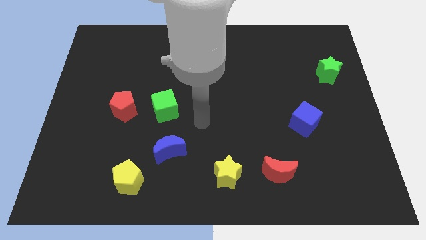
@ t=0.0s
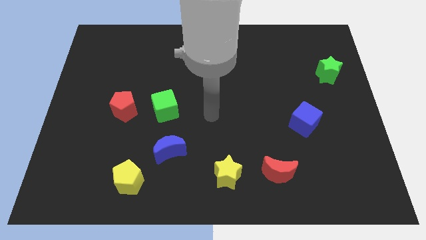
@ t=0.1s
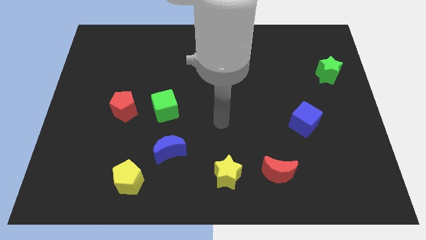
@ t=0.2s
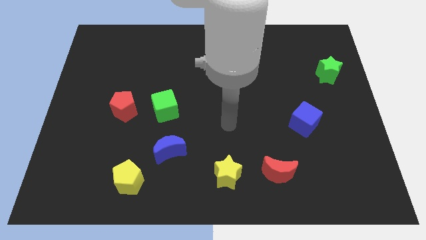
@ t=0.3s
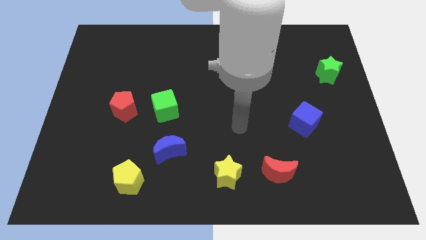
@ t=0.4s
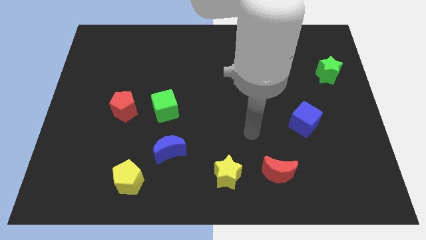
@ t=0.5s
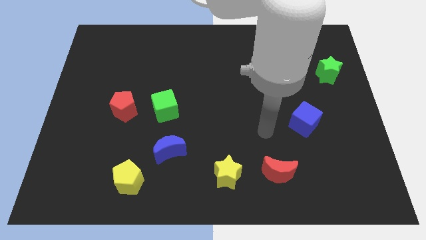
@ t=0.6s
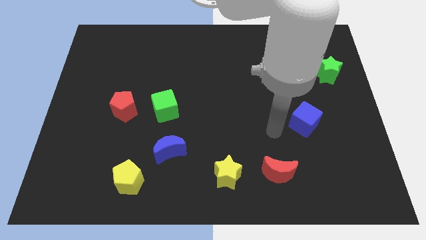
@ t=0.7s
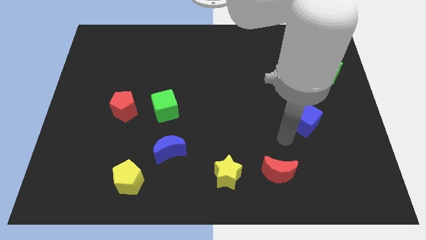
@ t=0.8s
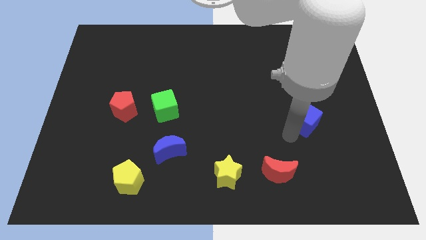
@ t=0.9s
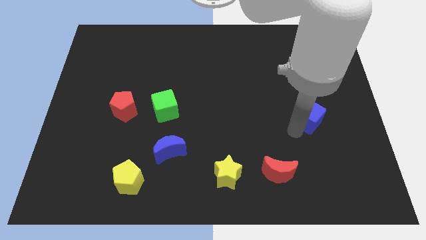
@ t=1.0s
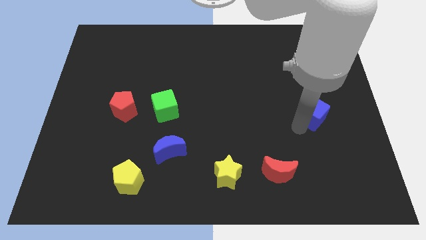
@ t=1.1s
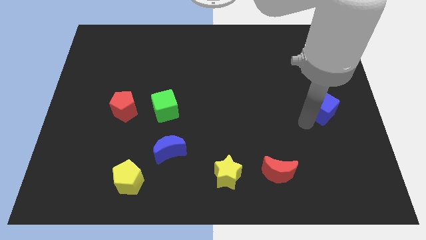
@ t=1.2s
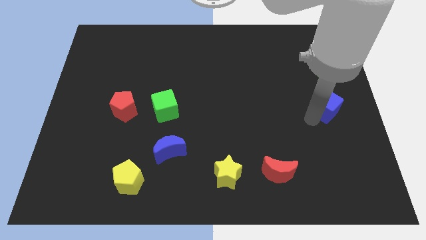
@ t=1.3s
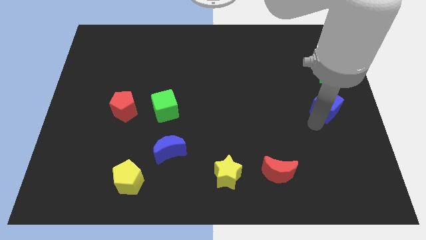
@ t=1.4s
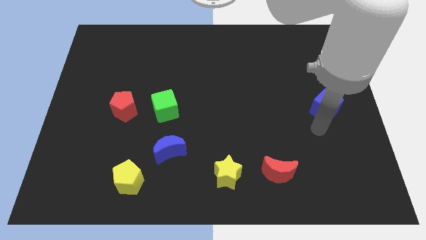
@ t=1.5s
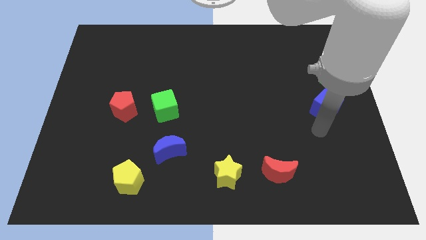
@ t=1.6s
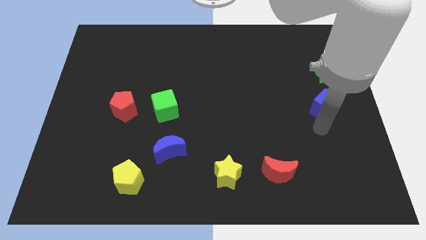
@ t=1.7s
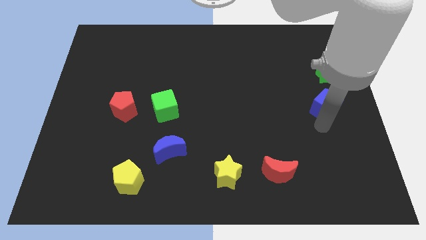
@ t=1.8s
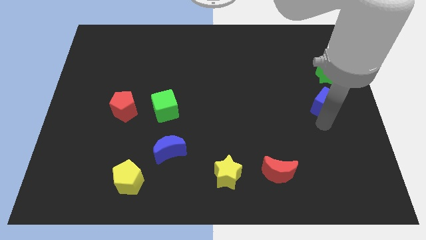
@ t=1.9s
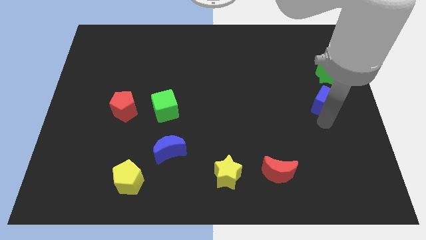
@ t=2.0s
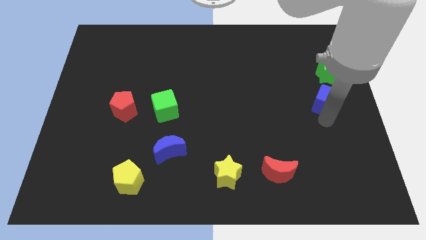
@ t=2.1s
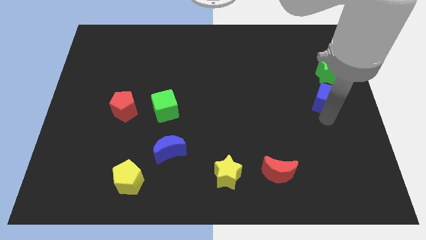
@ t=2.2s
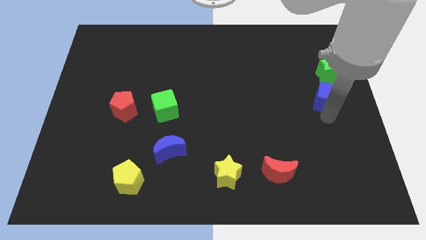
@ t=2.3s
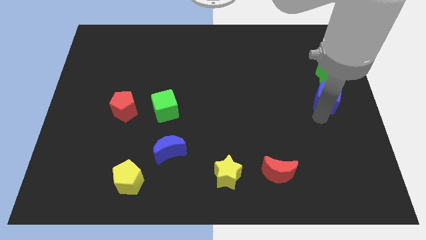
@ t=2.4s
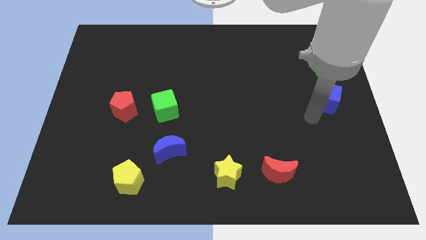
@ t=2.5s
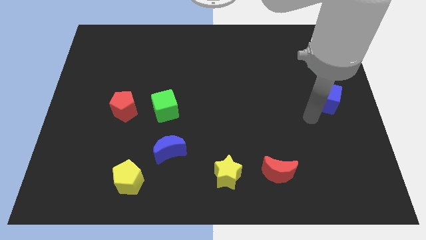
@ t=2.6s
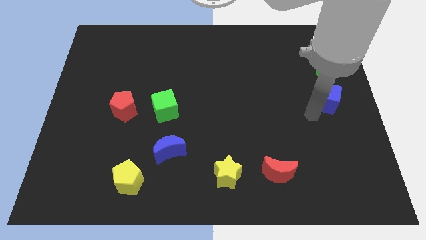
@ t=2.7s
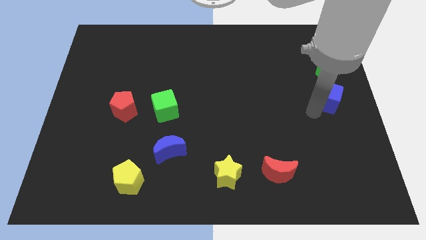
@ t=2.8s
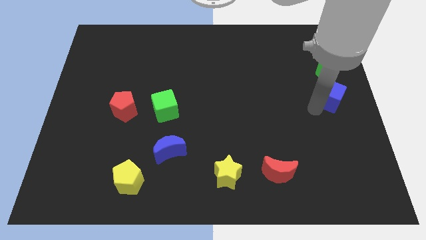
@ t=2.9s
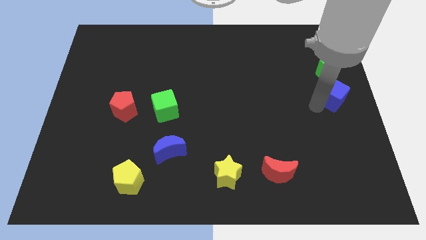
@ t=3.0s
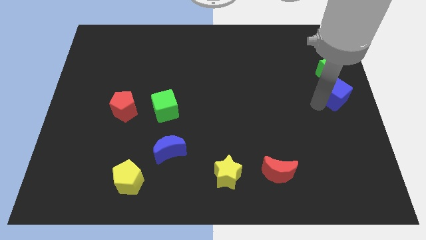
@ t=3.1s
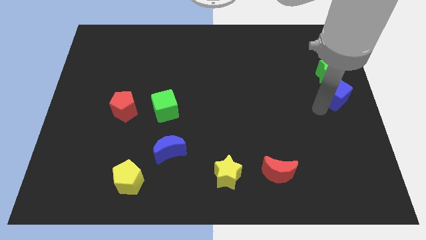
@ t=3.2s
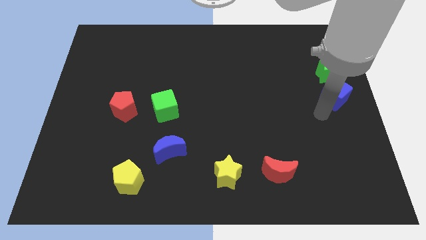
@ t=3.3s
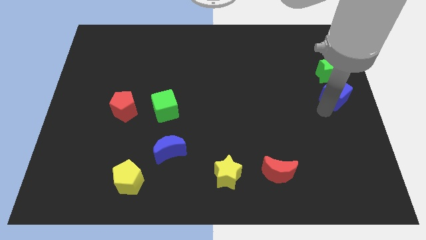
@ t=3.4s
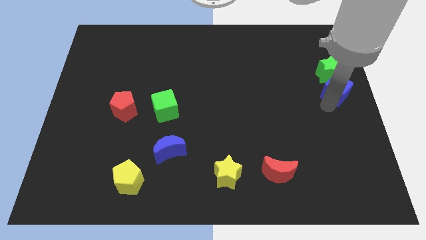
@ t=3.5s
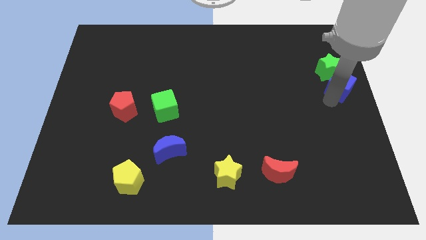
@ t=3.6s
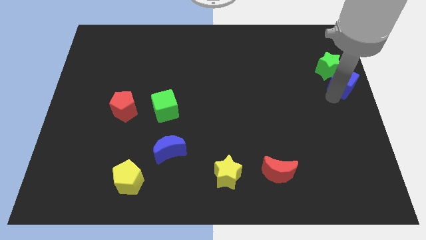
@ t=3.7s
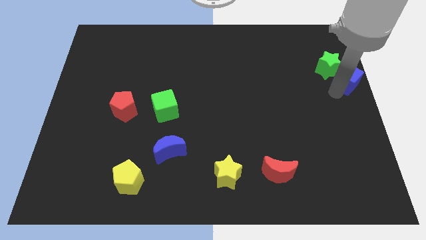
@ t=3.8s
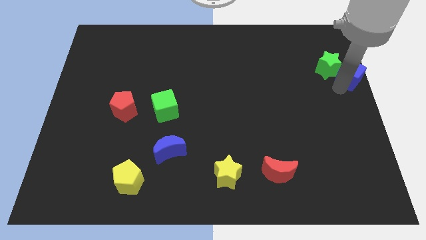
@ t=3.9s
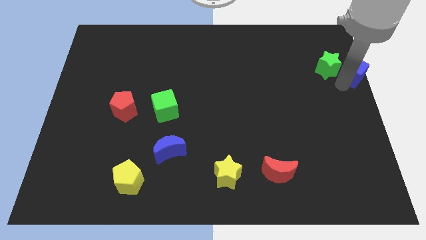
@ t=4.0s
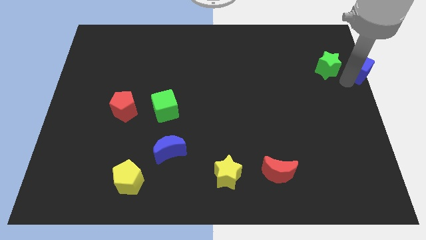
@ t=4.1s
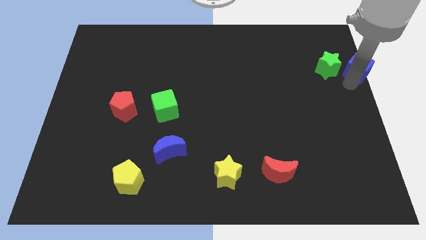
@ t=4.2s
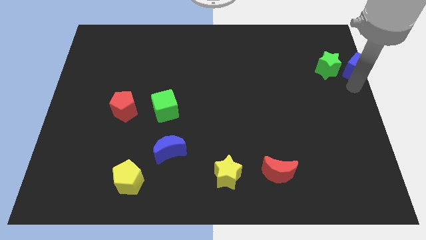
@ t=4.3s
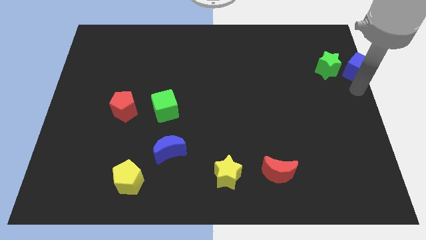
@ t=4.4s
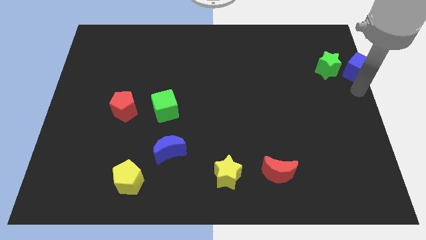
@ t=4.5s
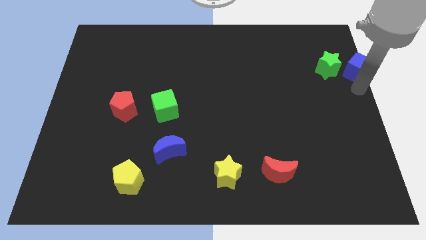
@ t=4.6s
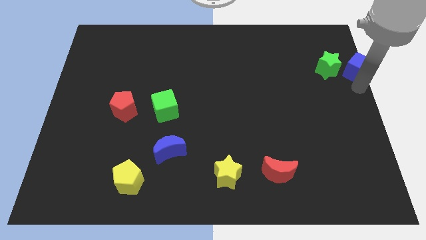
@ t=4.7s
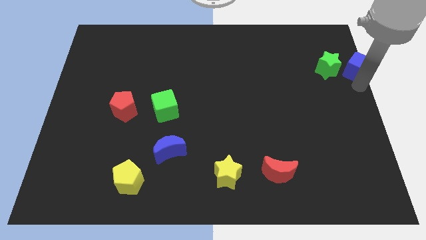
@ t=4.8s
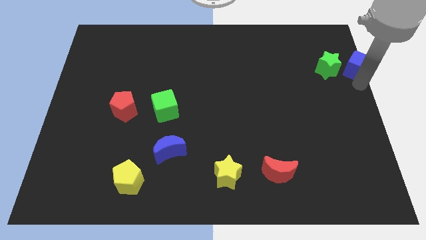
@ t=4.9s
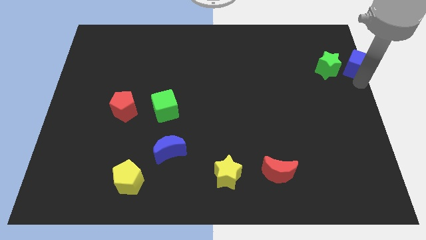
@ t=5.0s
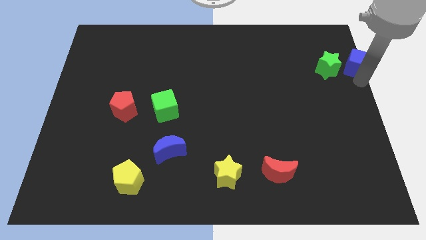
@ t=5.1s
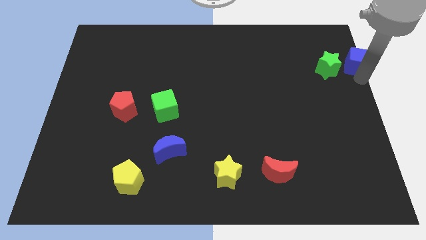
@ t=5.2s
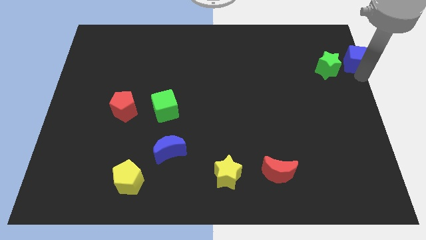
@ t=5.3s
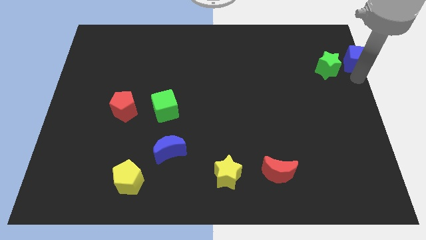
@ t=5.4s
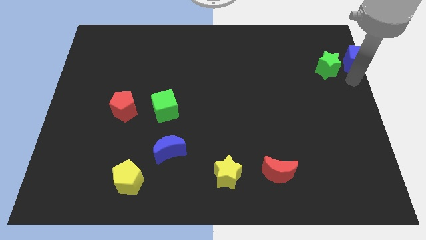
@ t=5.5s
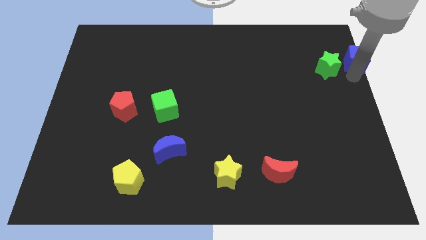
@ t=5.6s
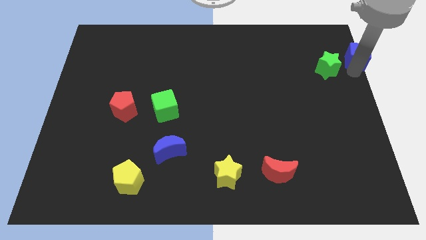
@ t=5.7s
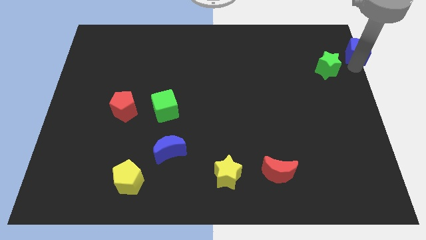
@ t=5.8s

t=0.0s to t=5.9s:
slide the blue cube to the top right of the board

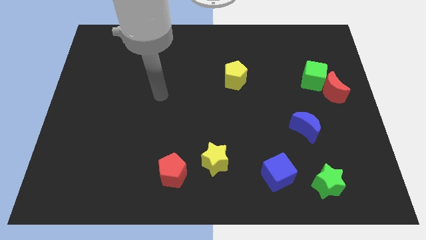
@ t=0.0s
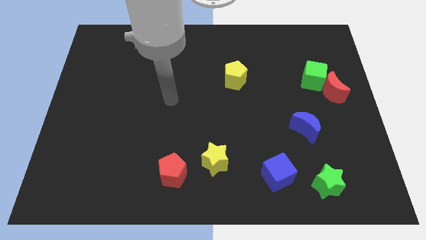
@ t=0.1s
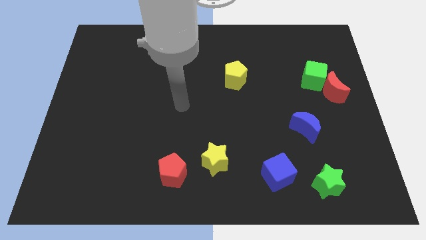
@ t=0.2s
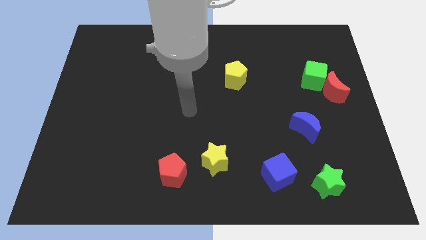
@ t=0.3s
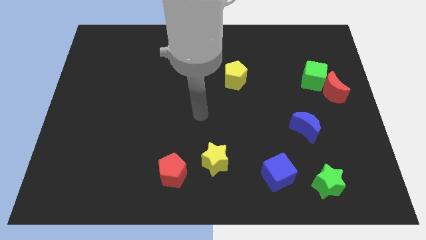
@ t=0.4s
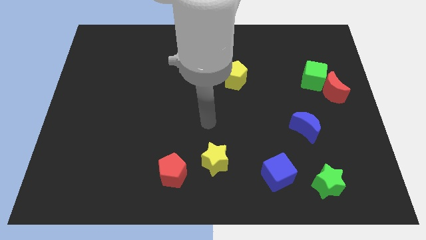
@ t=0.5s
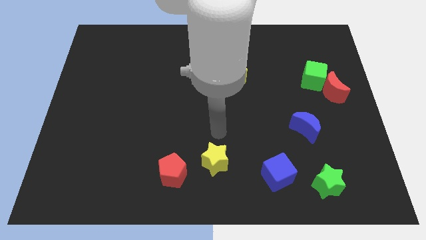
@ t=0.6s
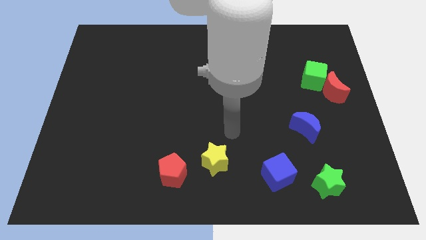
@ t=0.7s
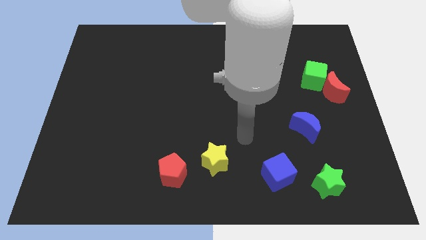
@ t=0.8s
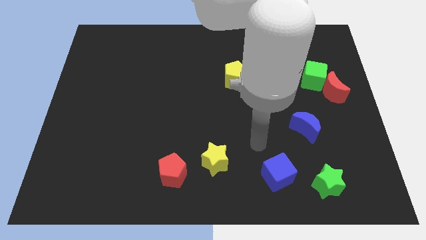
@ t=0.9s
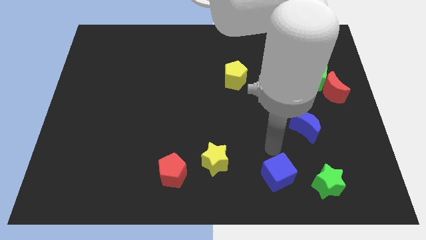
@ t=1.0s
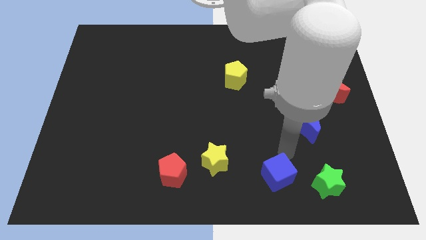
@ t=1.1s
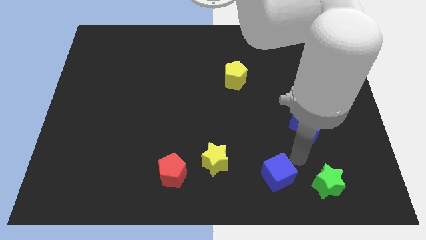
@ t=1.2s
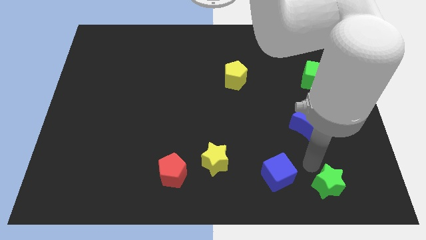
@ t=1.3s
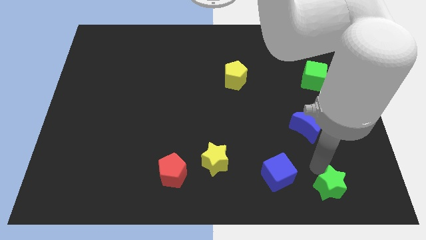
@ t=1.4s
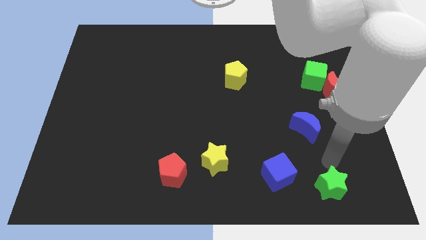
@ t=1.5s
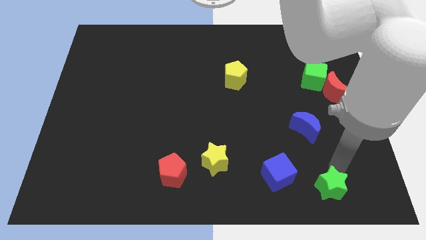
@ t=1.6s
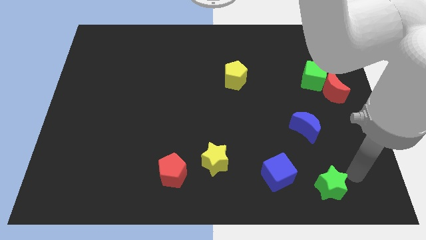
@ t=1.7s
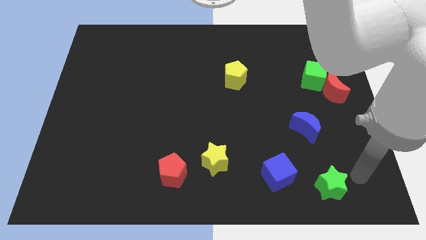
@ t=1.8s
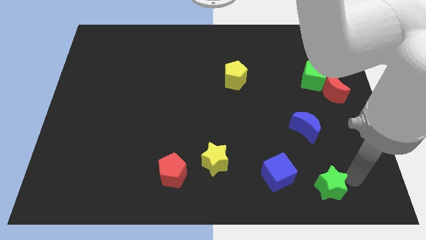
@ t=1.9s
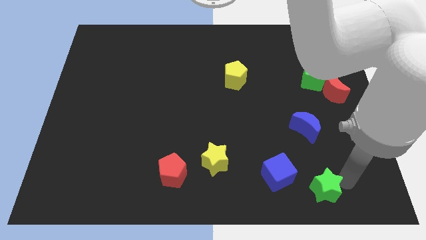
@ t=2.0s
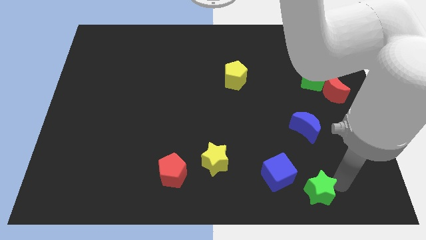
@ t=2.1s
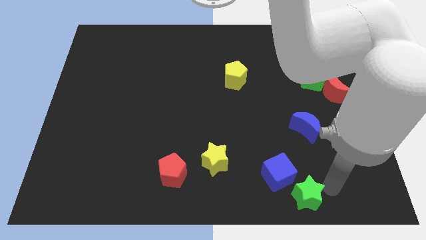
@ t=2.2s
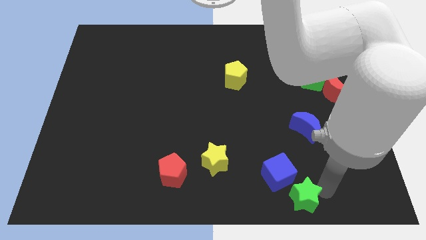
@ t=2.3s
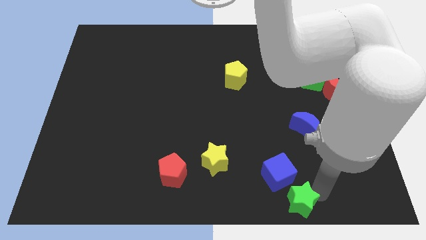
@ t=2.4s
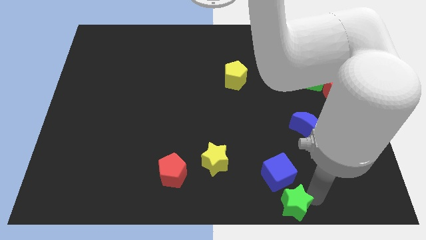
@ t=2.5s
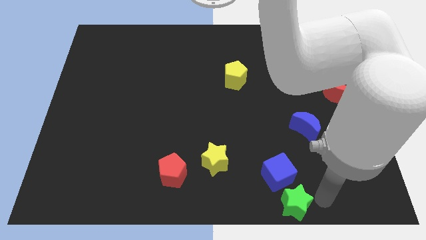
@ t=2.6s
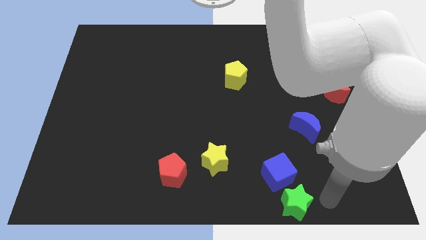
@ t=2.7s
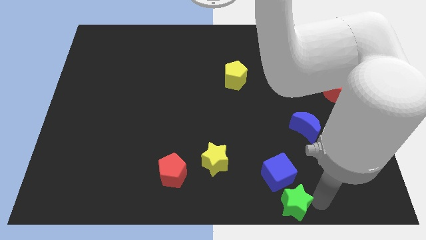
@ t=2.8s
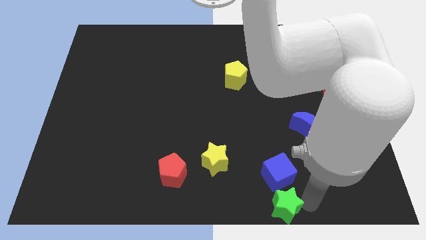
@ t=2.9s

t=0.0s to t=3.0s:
put the green star to the bottom side
